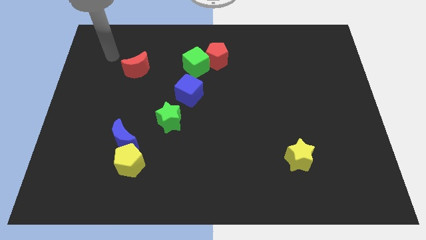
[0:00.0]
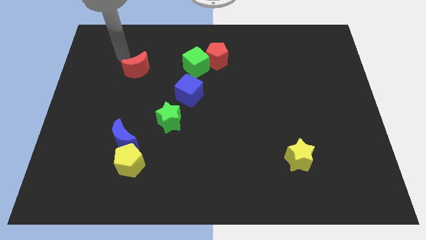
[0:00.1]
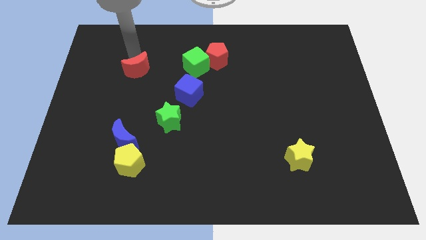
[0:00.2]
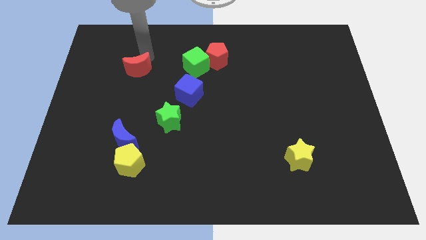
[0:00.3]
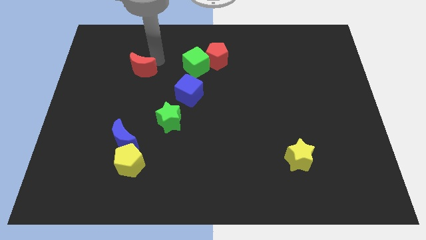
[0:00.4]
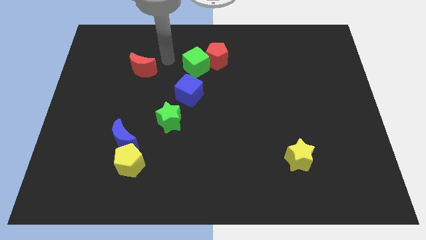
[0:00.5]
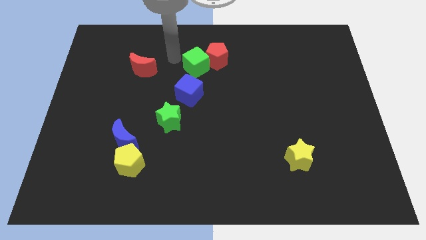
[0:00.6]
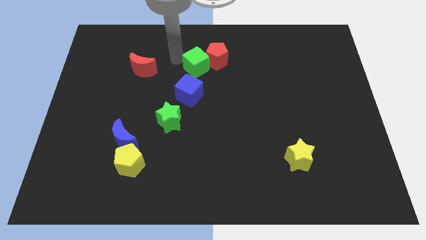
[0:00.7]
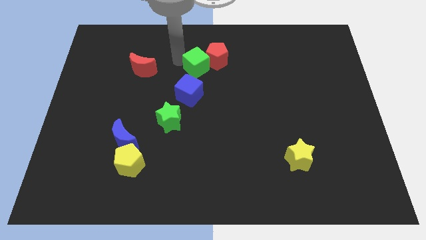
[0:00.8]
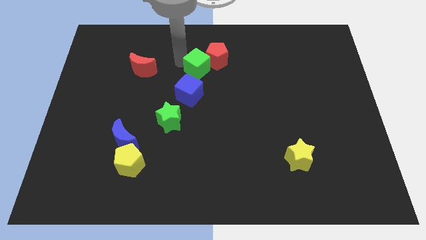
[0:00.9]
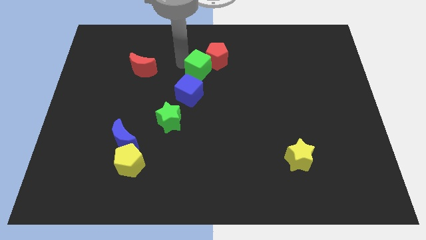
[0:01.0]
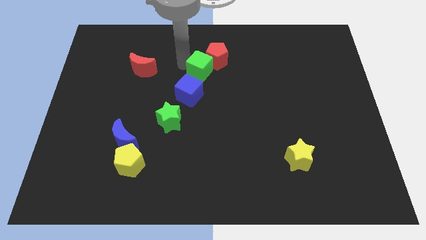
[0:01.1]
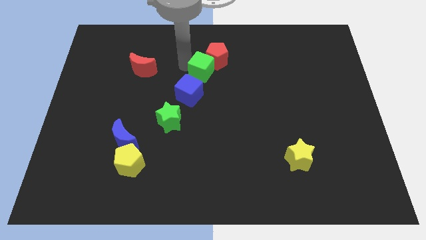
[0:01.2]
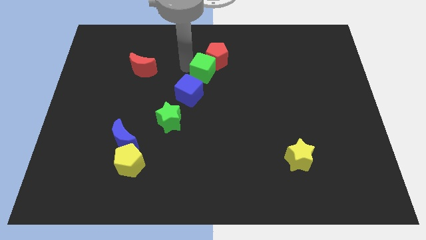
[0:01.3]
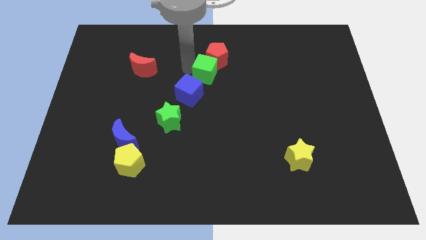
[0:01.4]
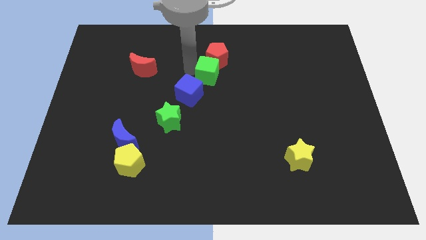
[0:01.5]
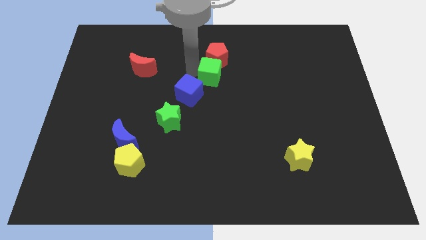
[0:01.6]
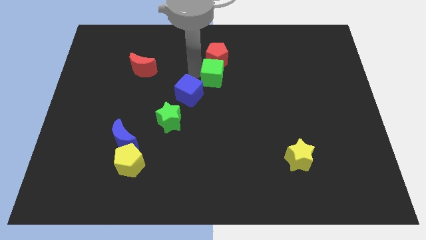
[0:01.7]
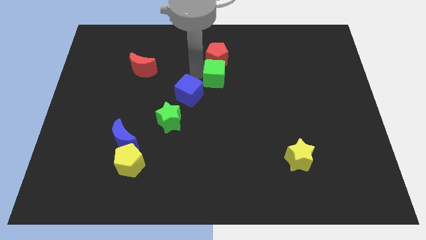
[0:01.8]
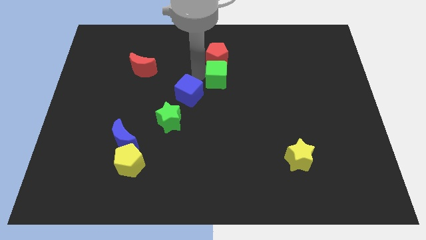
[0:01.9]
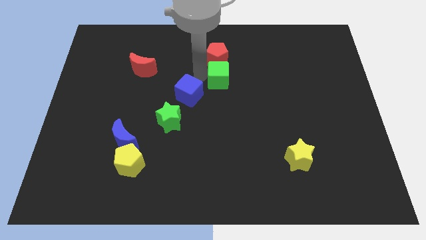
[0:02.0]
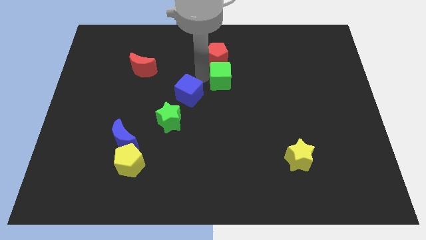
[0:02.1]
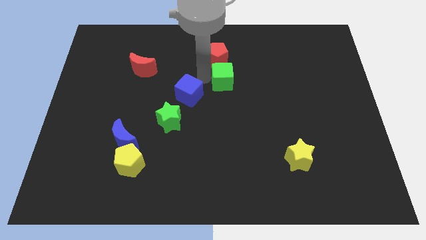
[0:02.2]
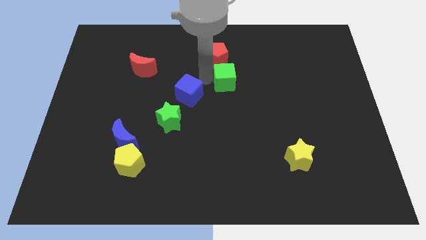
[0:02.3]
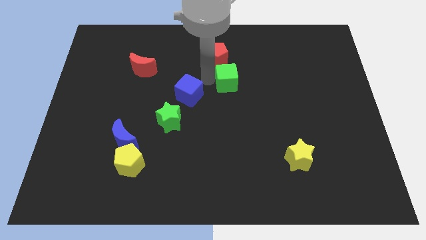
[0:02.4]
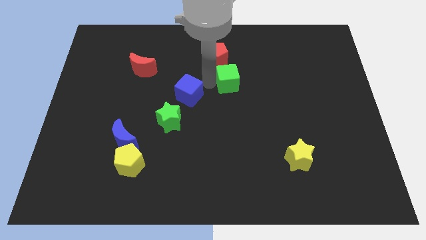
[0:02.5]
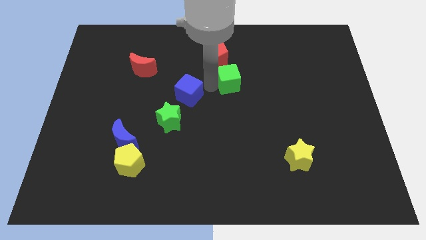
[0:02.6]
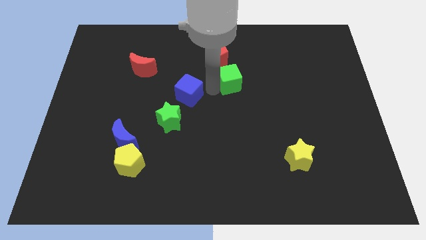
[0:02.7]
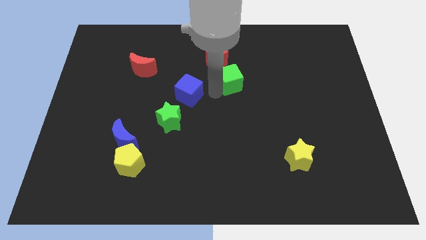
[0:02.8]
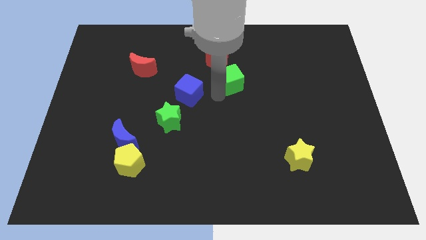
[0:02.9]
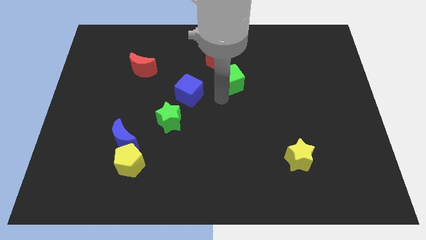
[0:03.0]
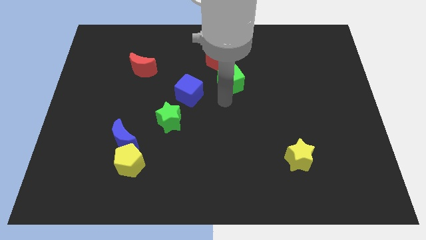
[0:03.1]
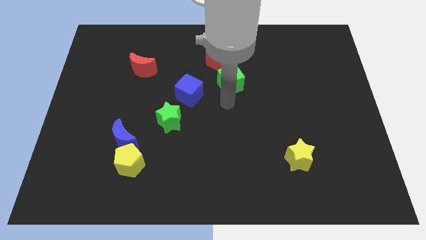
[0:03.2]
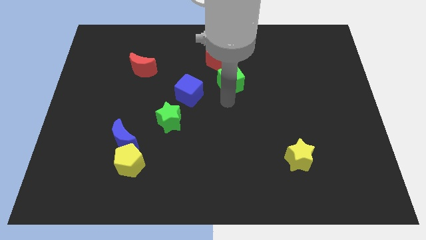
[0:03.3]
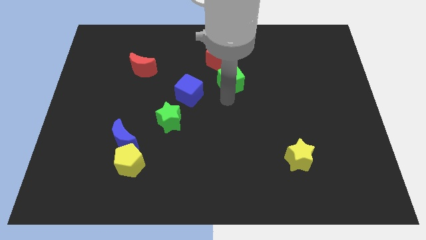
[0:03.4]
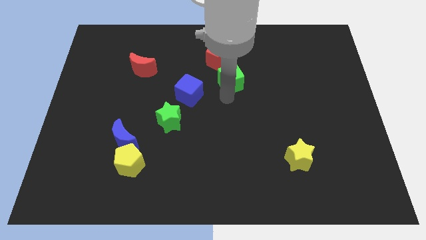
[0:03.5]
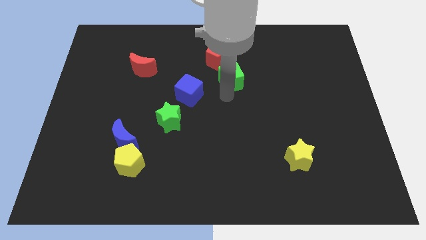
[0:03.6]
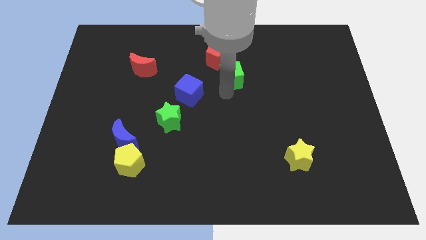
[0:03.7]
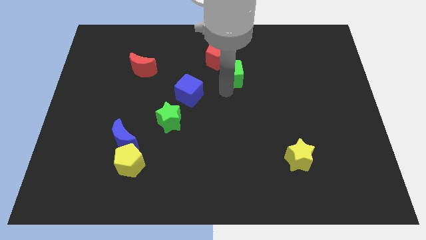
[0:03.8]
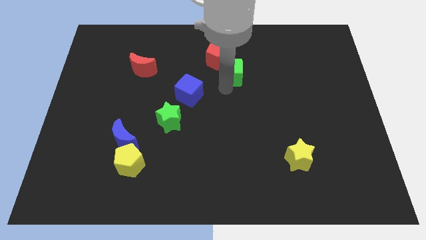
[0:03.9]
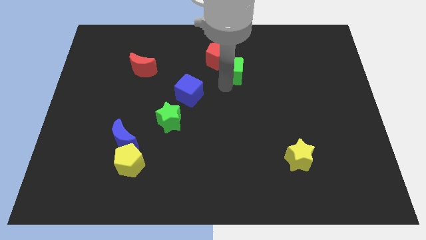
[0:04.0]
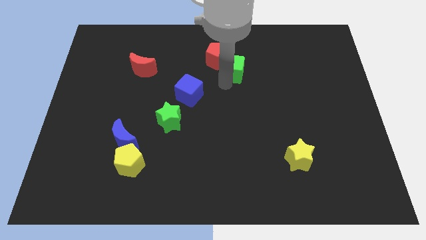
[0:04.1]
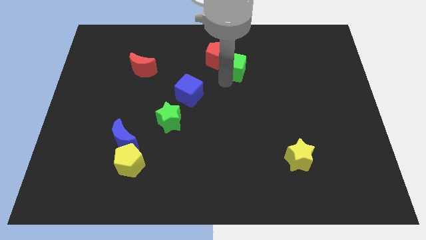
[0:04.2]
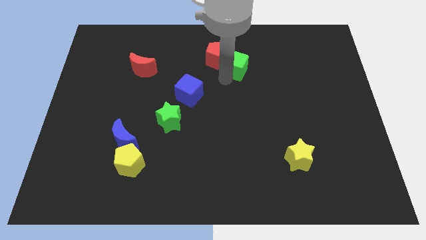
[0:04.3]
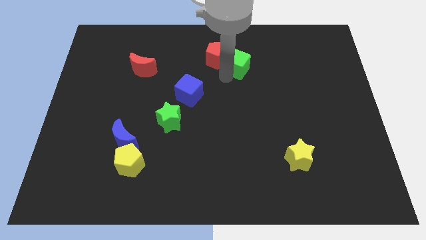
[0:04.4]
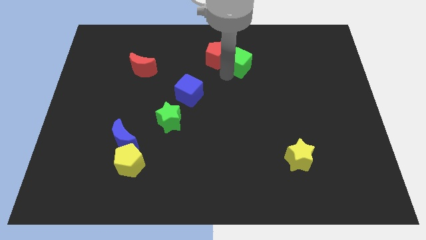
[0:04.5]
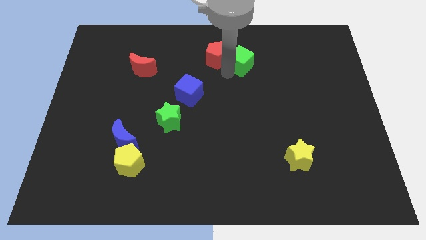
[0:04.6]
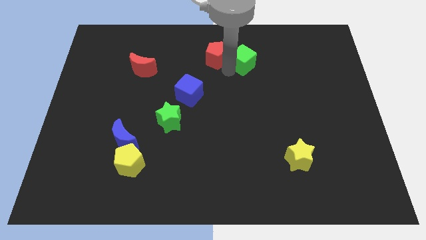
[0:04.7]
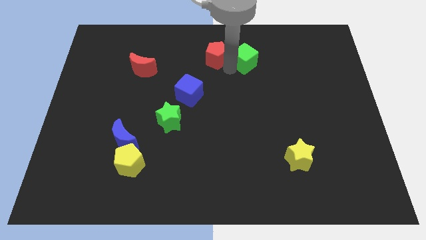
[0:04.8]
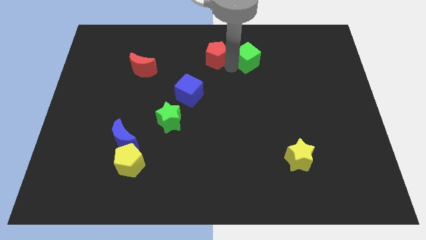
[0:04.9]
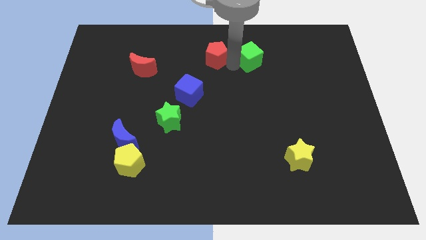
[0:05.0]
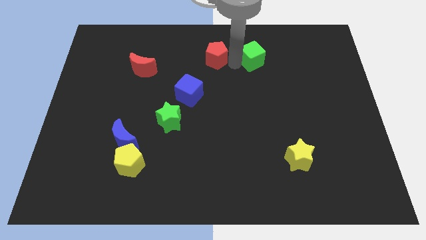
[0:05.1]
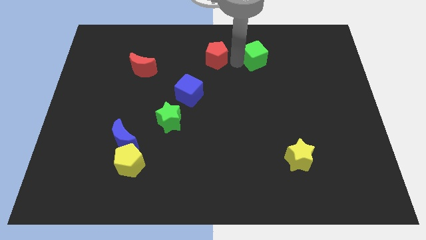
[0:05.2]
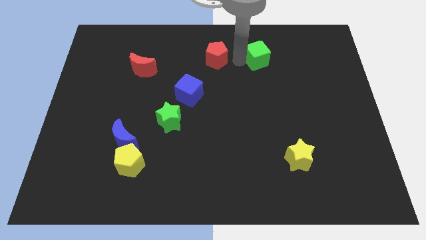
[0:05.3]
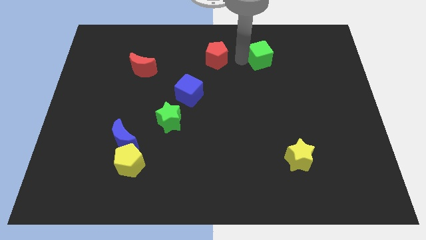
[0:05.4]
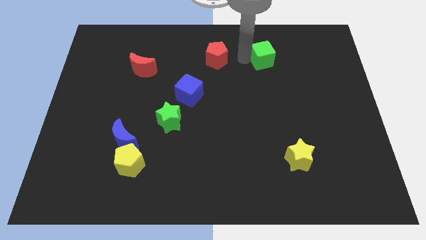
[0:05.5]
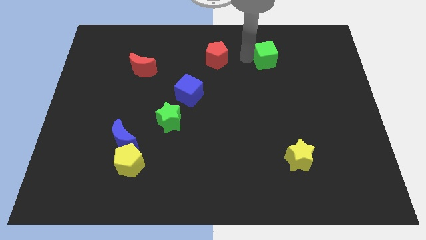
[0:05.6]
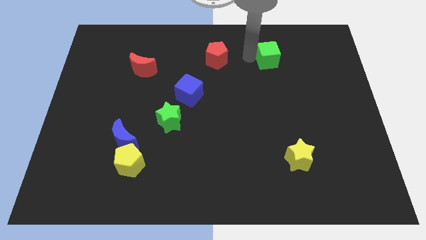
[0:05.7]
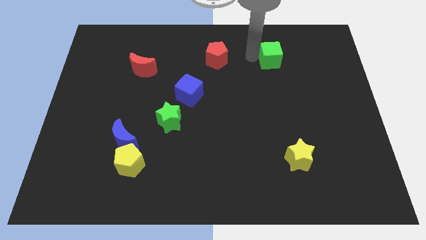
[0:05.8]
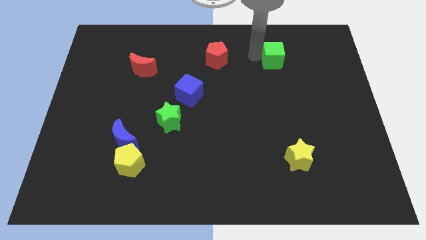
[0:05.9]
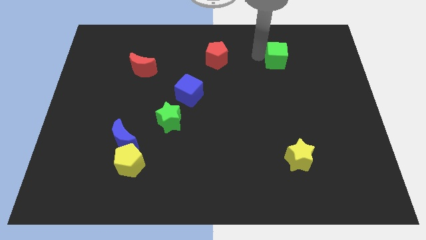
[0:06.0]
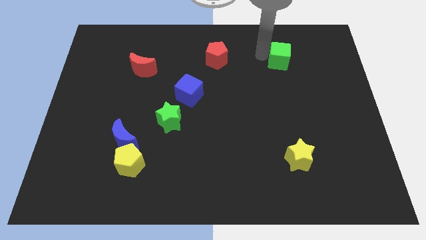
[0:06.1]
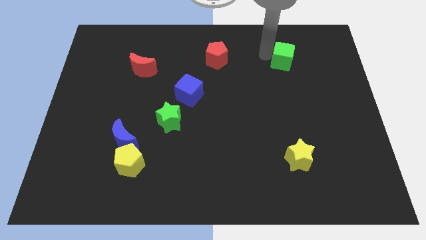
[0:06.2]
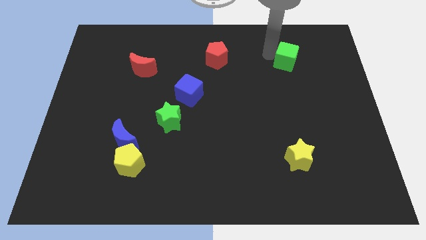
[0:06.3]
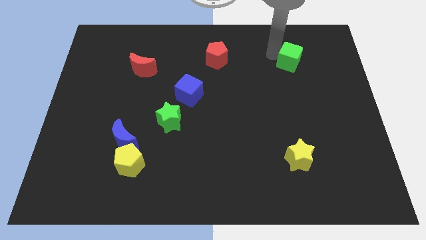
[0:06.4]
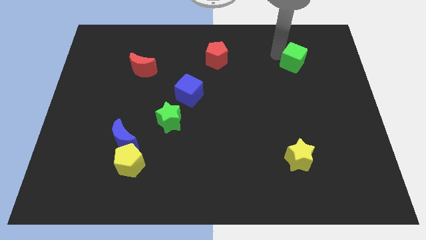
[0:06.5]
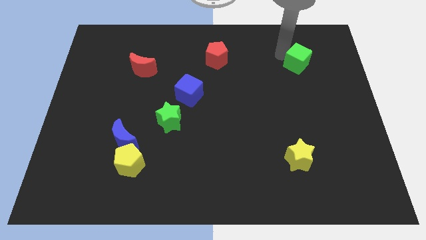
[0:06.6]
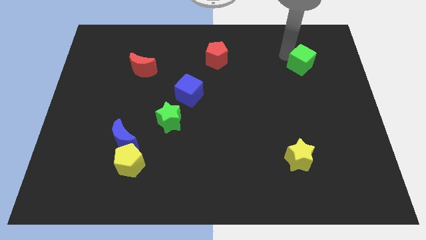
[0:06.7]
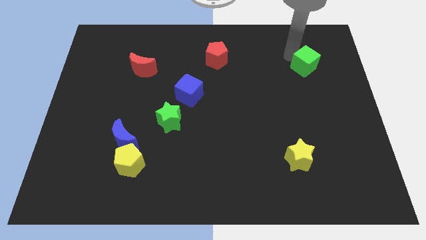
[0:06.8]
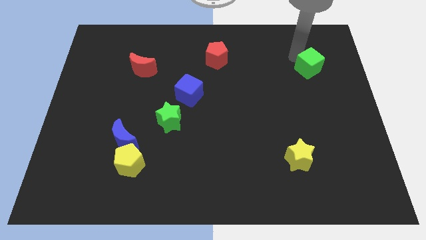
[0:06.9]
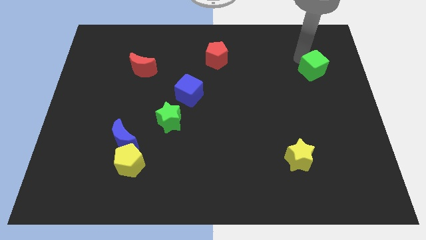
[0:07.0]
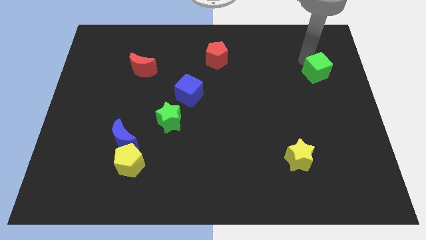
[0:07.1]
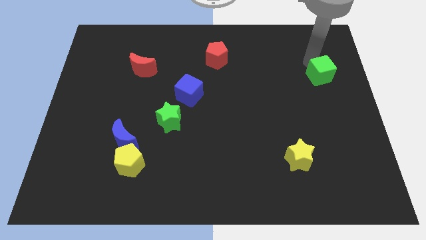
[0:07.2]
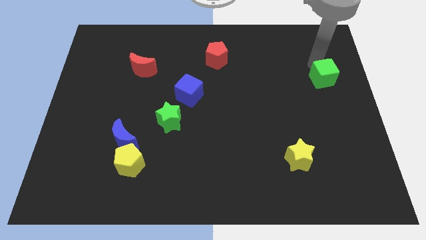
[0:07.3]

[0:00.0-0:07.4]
push the green cube to the right side of the board
